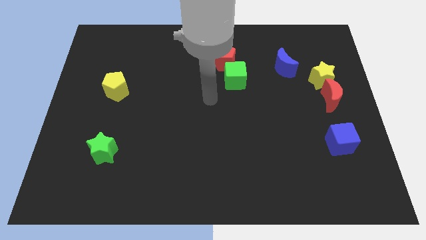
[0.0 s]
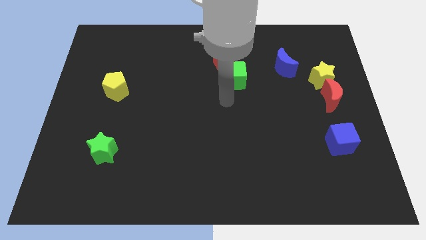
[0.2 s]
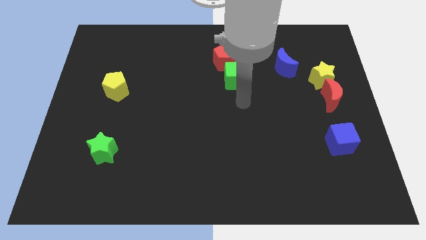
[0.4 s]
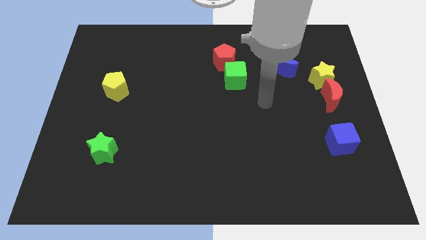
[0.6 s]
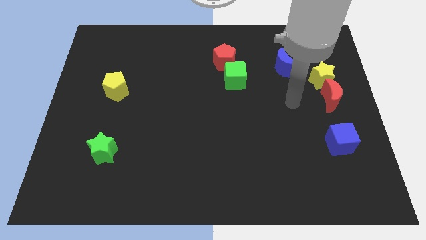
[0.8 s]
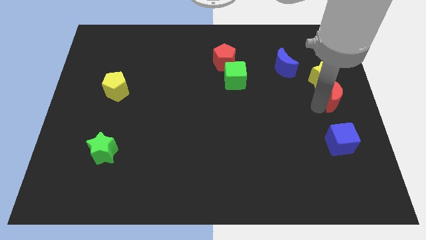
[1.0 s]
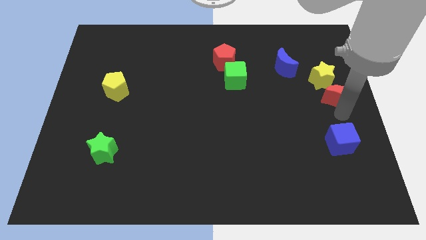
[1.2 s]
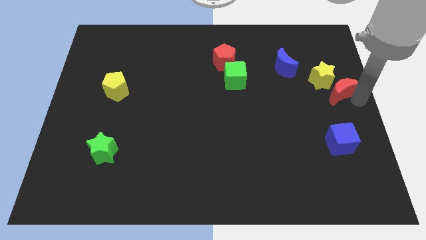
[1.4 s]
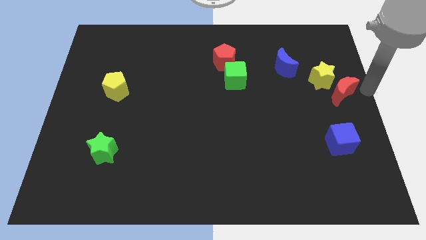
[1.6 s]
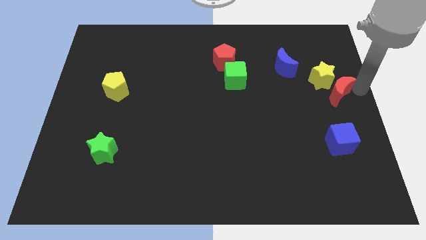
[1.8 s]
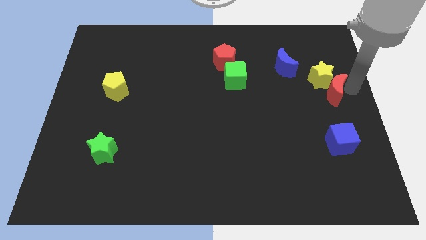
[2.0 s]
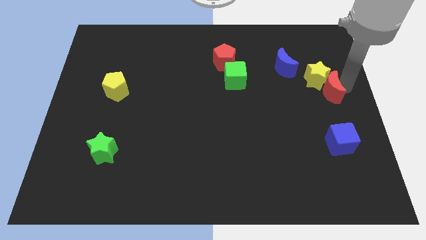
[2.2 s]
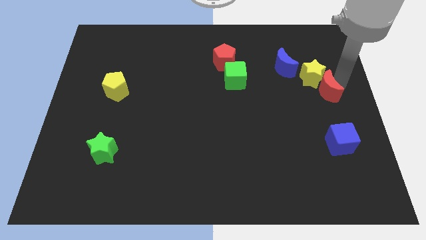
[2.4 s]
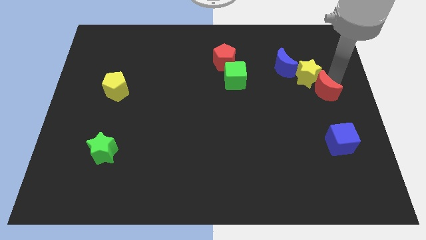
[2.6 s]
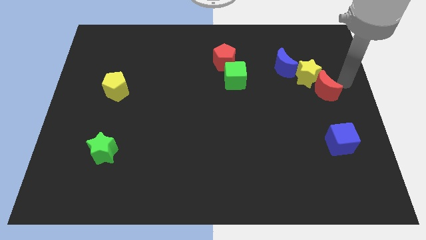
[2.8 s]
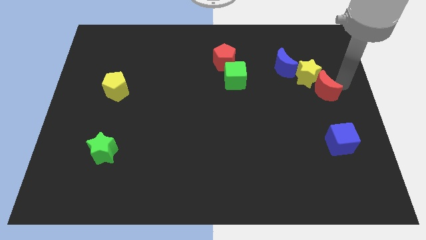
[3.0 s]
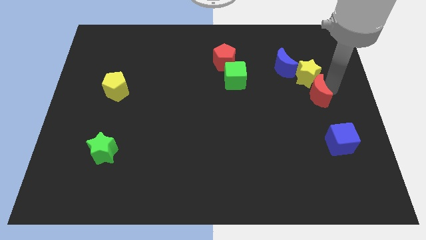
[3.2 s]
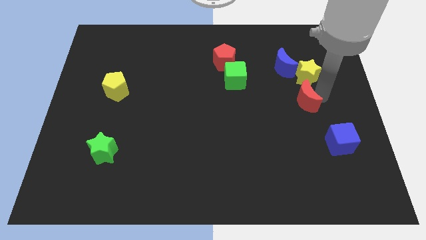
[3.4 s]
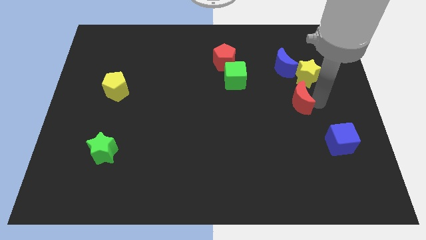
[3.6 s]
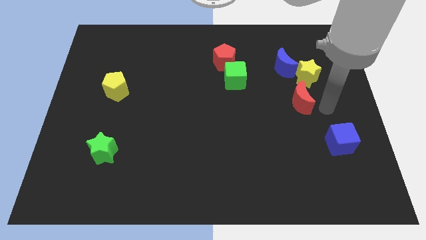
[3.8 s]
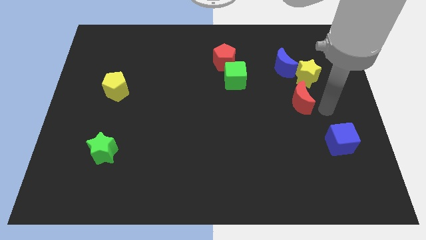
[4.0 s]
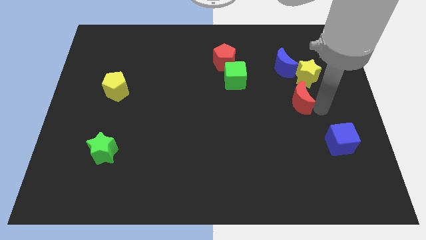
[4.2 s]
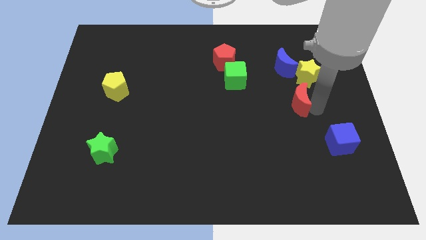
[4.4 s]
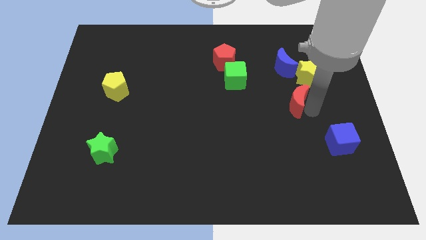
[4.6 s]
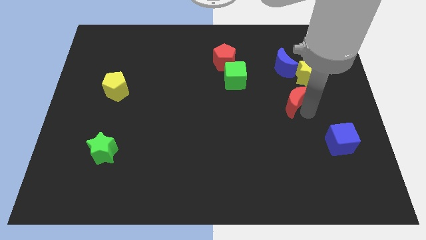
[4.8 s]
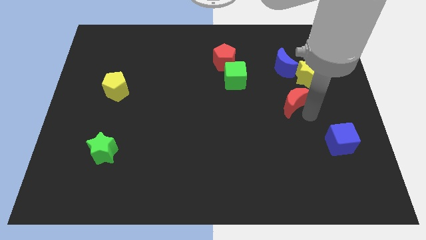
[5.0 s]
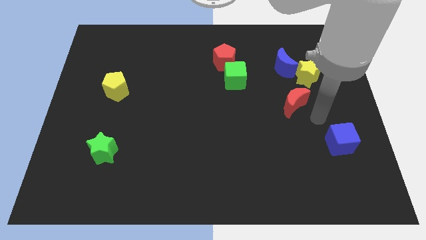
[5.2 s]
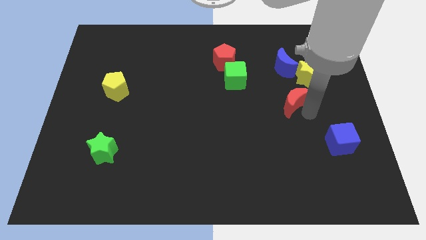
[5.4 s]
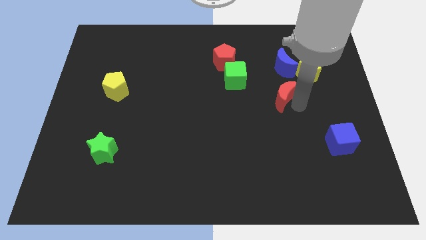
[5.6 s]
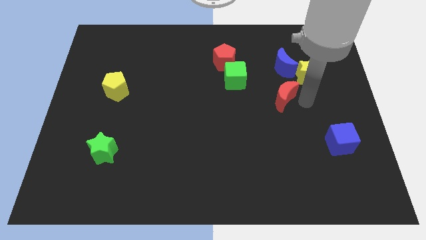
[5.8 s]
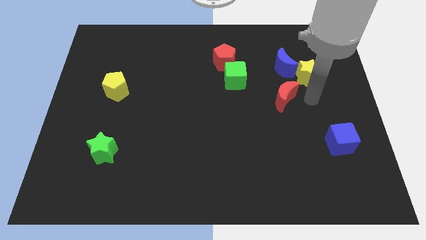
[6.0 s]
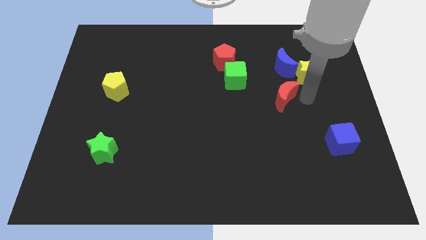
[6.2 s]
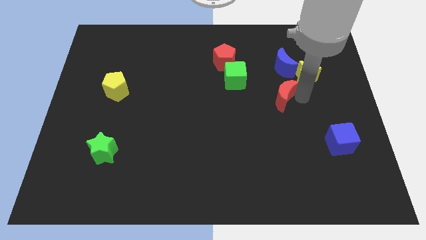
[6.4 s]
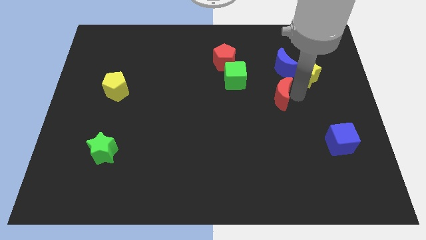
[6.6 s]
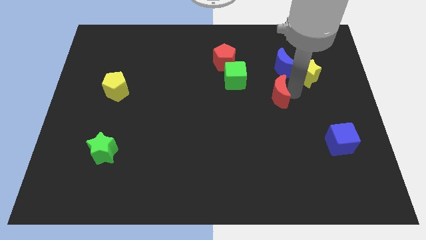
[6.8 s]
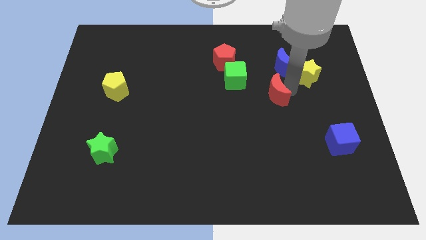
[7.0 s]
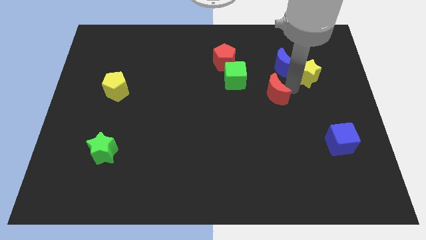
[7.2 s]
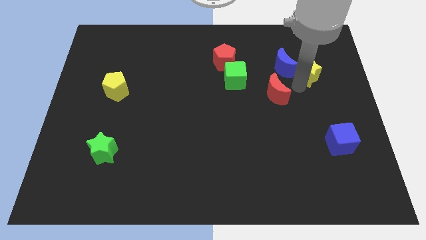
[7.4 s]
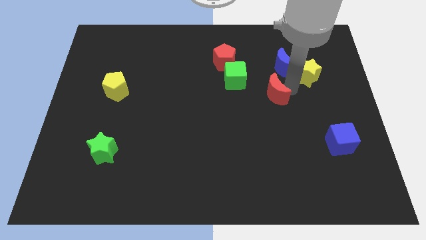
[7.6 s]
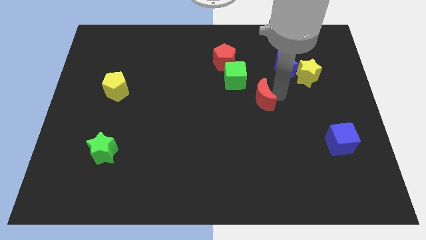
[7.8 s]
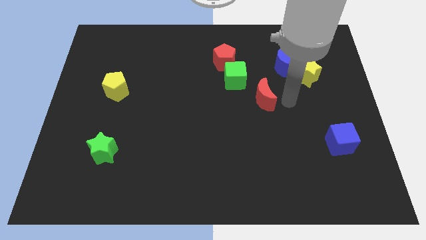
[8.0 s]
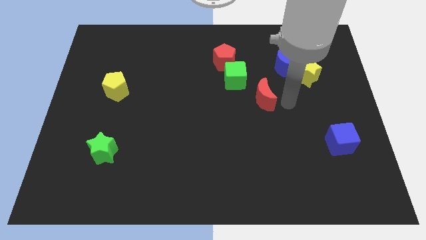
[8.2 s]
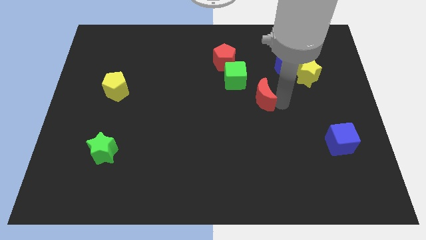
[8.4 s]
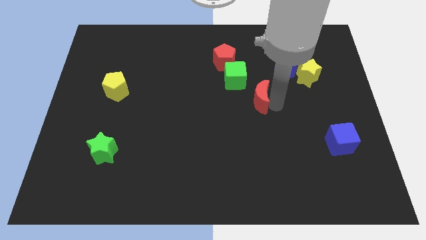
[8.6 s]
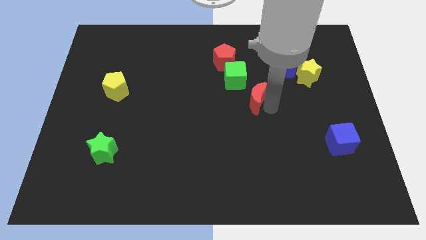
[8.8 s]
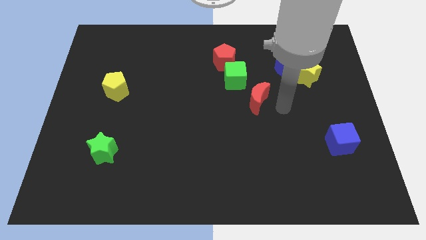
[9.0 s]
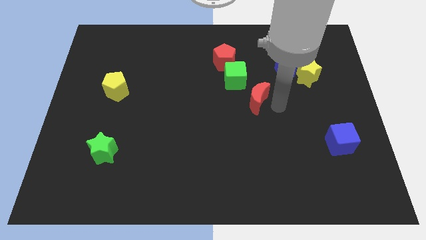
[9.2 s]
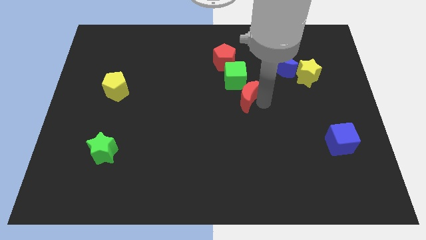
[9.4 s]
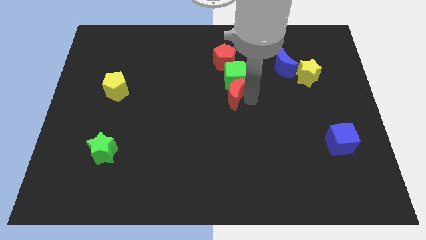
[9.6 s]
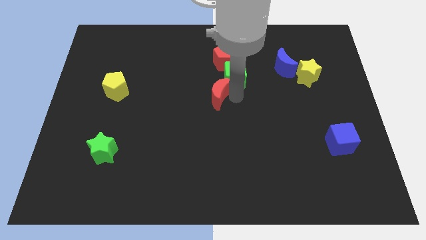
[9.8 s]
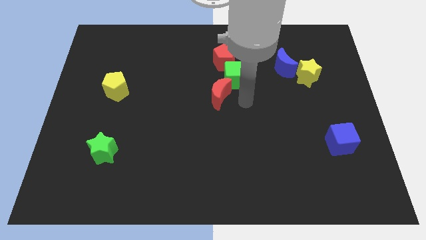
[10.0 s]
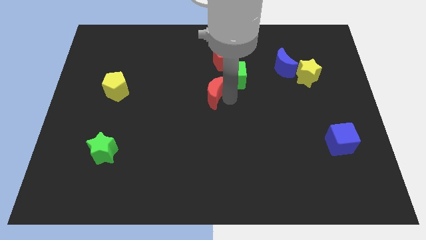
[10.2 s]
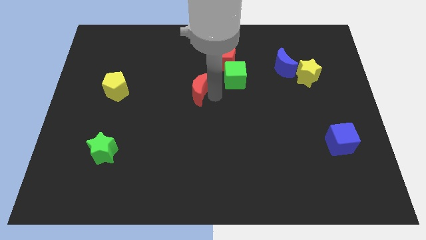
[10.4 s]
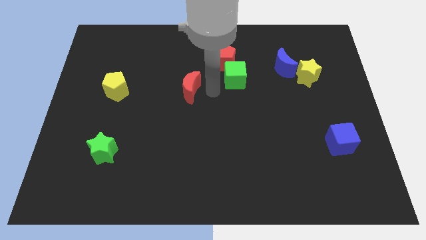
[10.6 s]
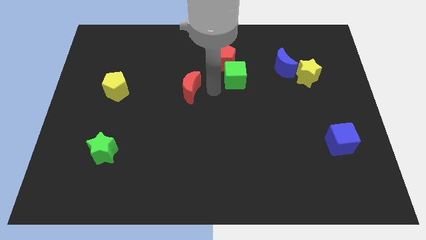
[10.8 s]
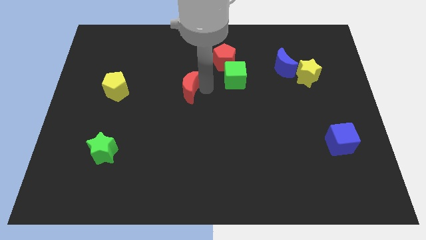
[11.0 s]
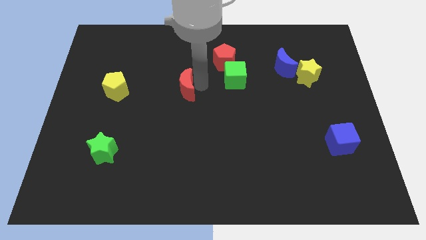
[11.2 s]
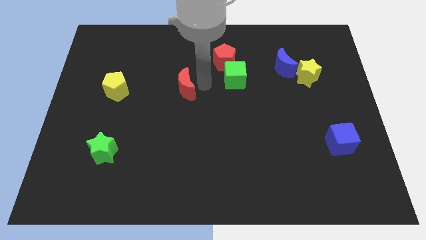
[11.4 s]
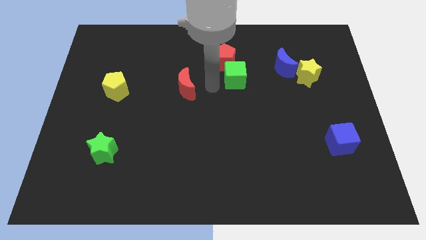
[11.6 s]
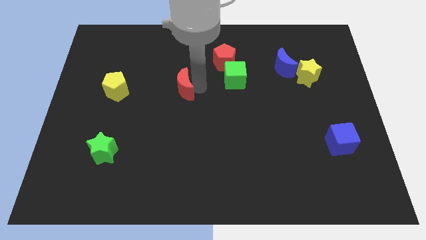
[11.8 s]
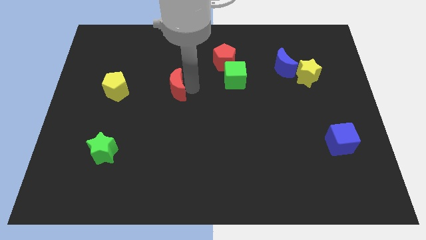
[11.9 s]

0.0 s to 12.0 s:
slide the red moon just right of the yellow pentagon

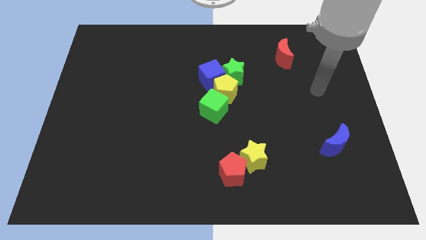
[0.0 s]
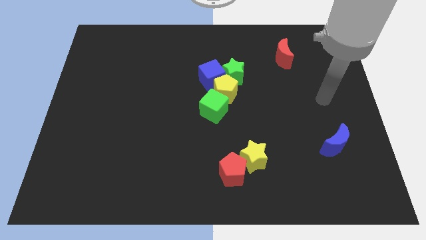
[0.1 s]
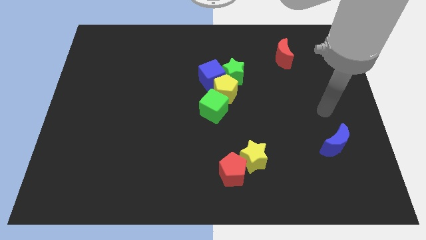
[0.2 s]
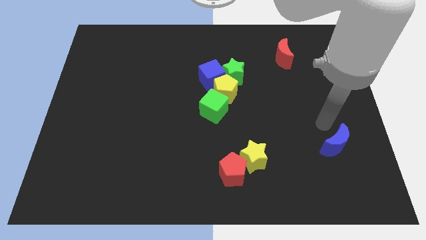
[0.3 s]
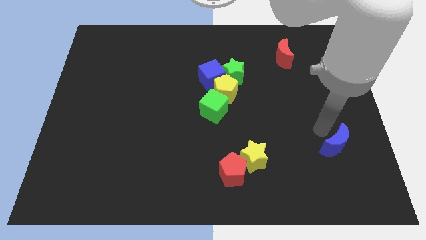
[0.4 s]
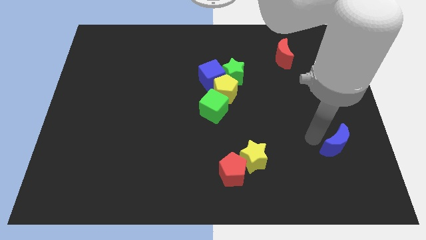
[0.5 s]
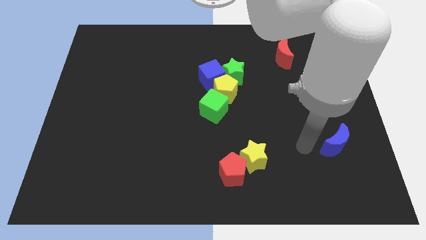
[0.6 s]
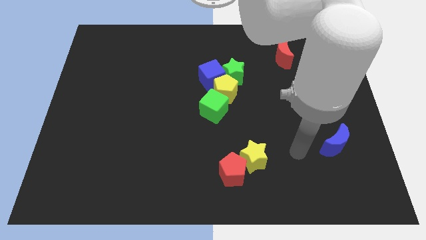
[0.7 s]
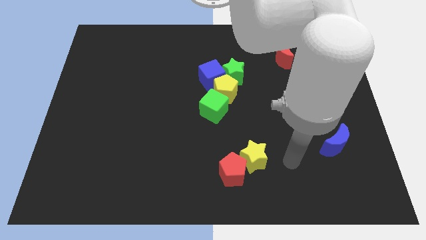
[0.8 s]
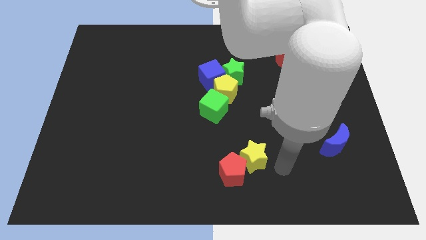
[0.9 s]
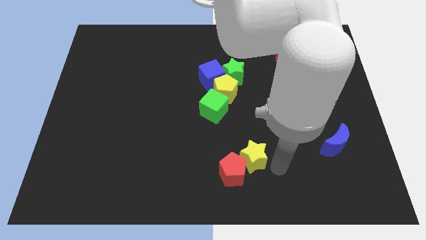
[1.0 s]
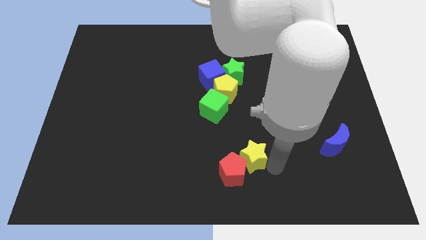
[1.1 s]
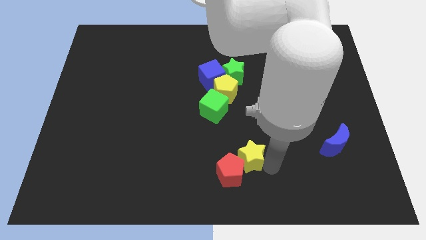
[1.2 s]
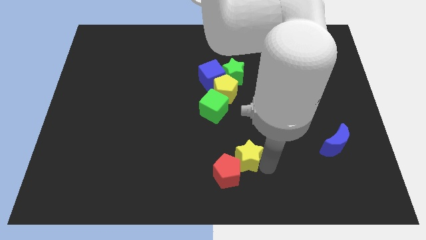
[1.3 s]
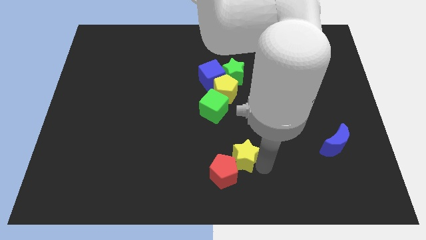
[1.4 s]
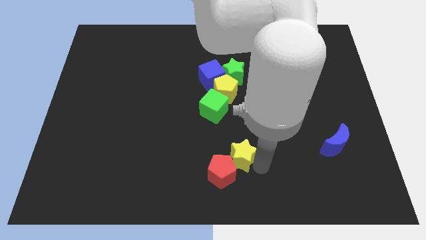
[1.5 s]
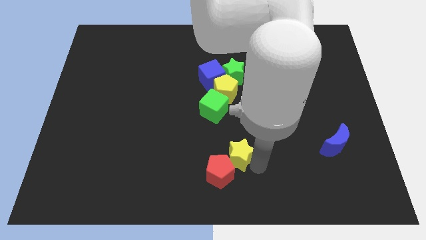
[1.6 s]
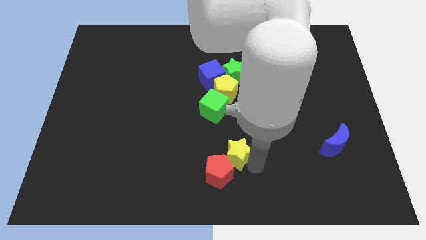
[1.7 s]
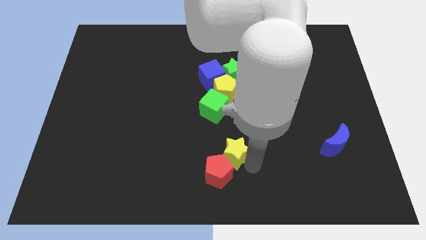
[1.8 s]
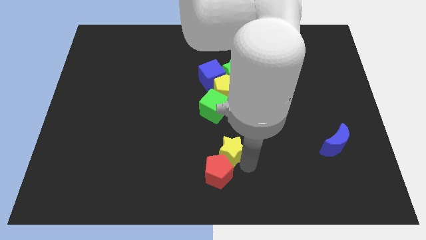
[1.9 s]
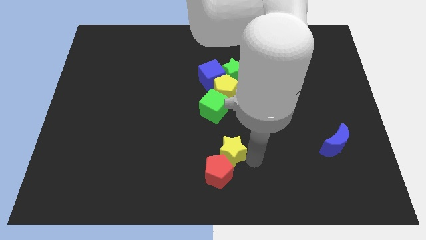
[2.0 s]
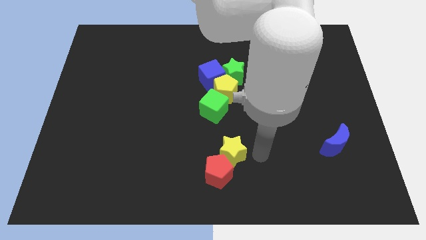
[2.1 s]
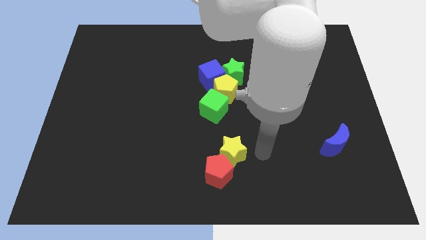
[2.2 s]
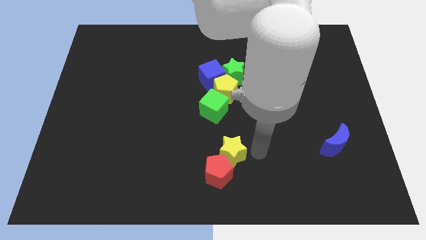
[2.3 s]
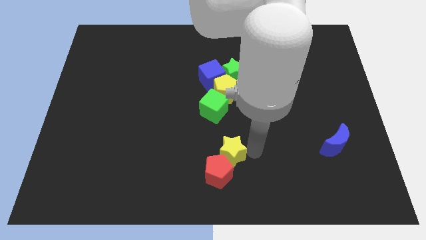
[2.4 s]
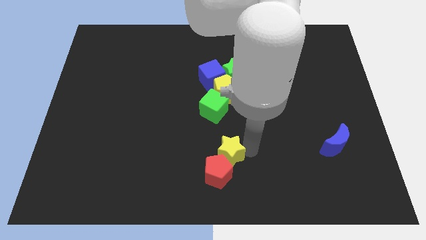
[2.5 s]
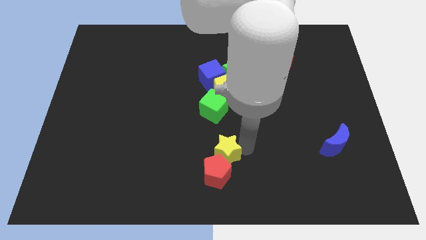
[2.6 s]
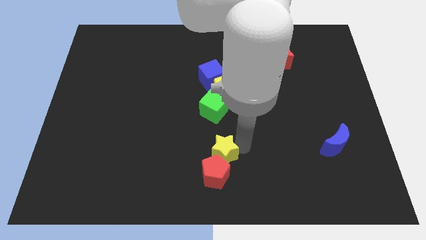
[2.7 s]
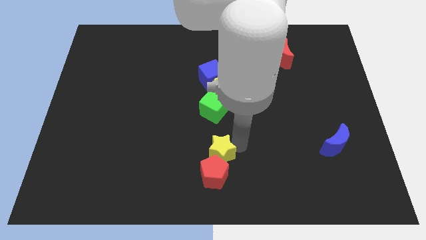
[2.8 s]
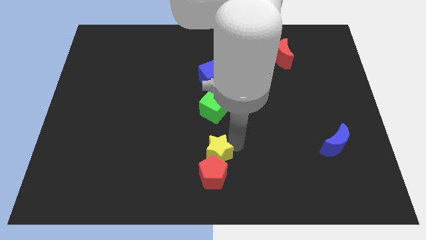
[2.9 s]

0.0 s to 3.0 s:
put the yellow star to the top left of the red pentagon
